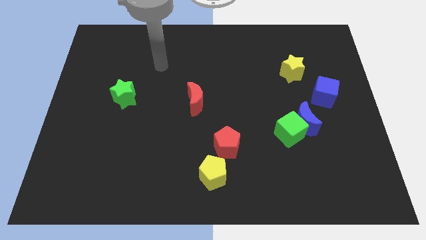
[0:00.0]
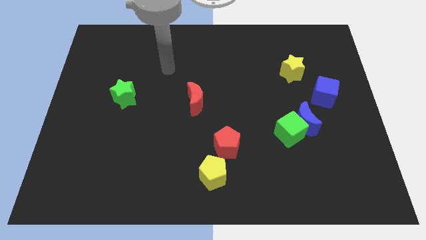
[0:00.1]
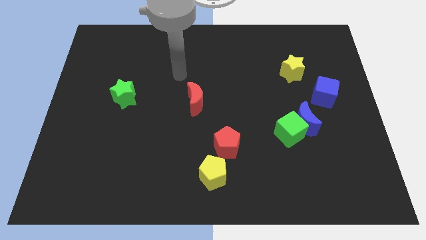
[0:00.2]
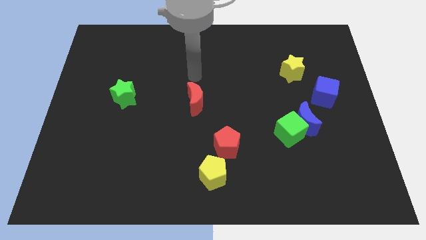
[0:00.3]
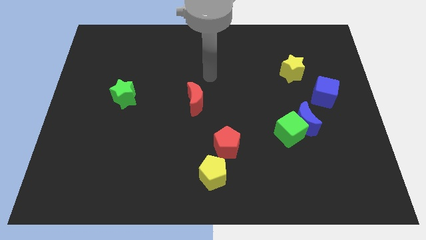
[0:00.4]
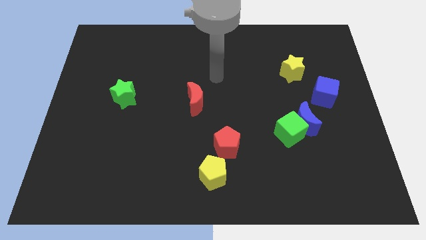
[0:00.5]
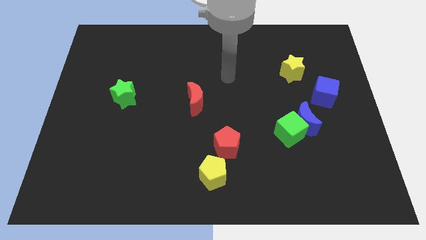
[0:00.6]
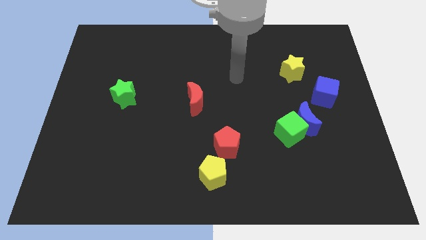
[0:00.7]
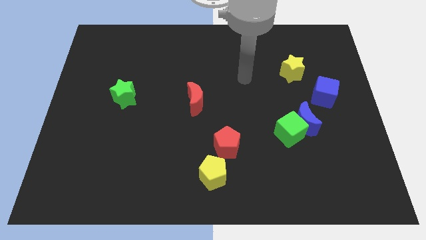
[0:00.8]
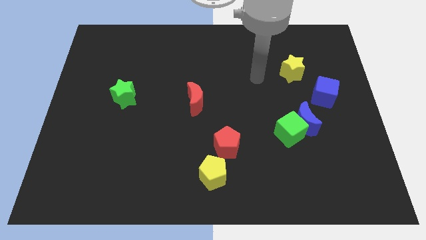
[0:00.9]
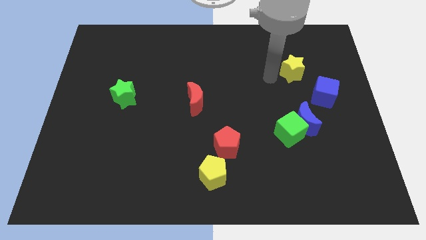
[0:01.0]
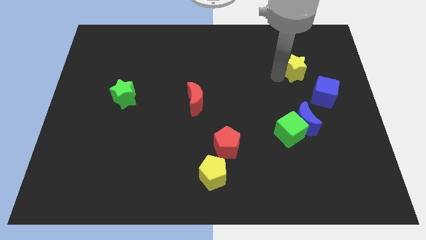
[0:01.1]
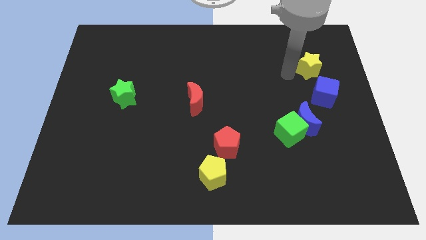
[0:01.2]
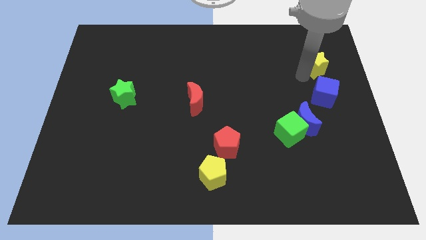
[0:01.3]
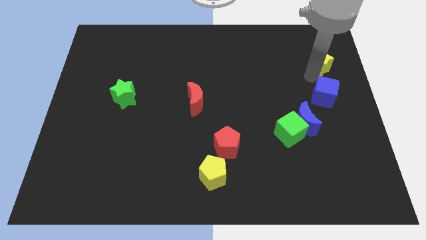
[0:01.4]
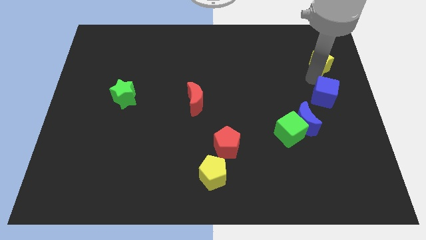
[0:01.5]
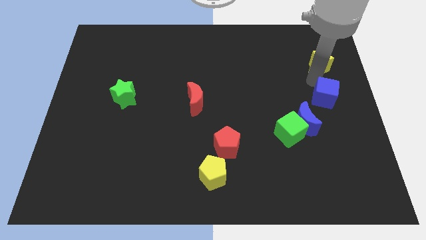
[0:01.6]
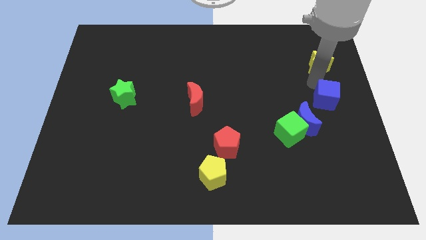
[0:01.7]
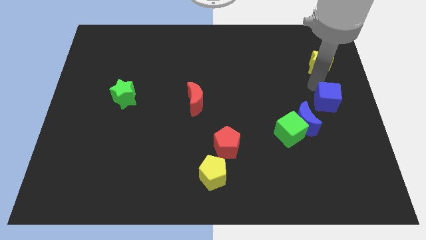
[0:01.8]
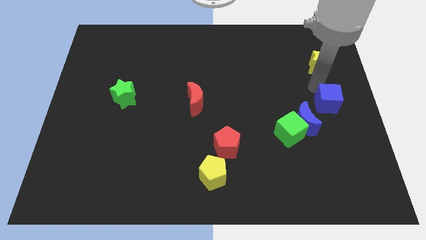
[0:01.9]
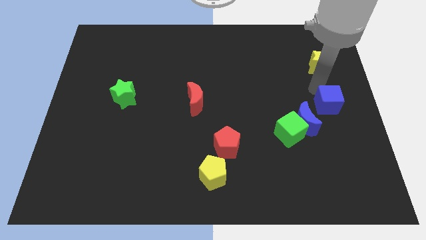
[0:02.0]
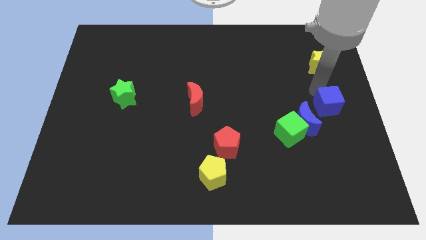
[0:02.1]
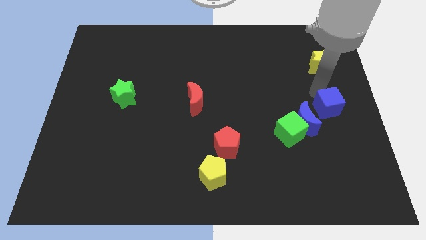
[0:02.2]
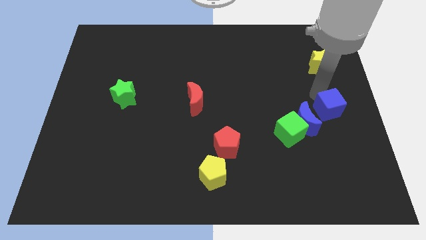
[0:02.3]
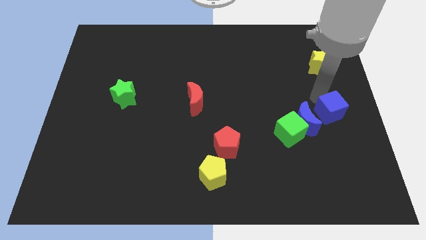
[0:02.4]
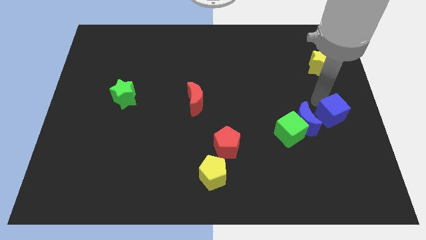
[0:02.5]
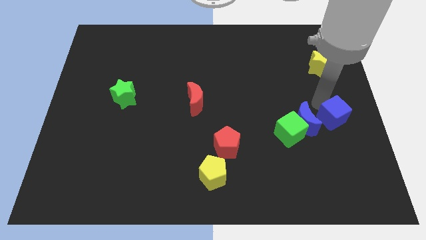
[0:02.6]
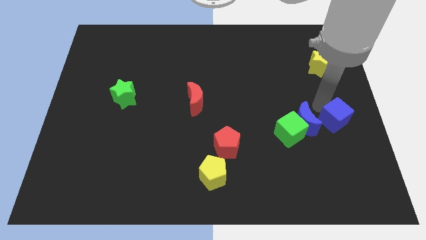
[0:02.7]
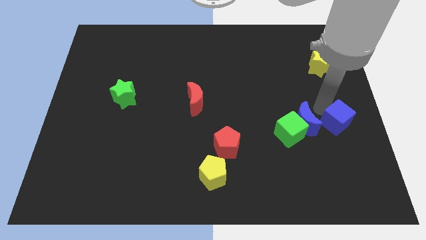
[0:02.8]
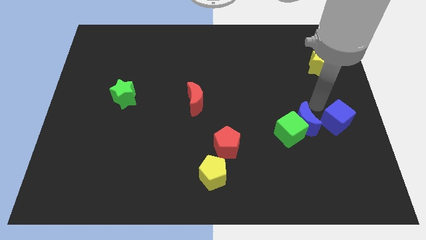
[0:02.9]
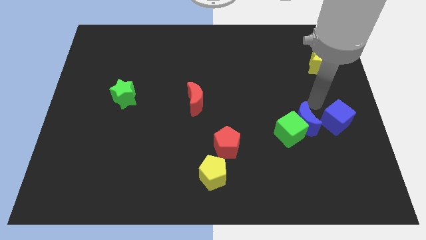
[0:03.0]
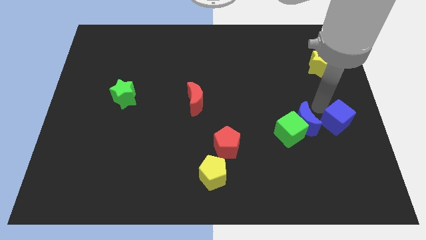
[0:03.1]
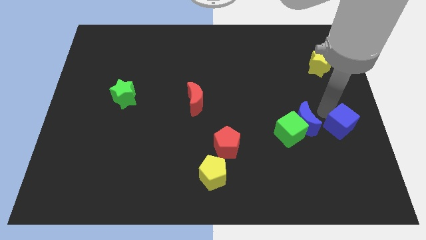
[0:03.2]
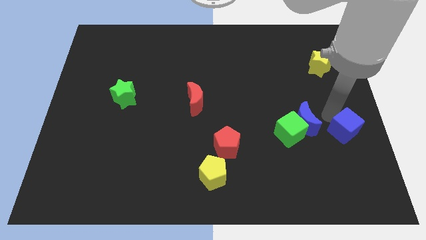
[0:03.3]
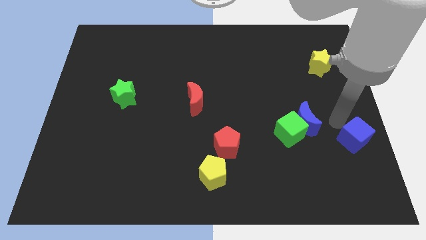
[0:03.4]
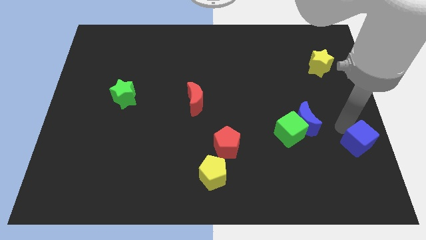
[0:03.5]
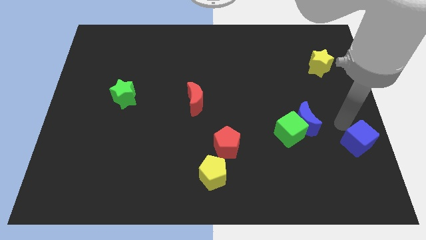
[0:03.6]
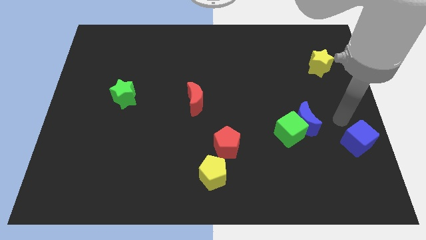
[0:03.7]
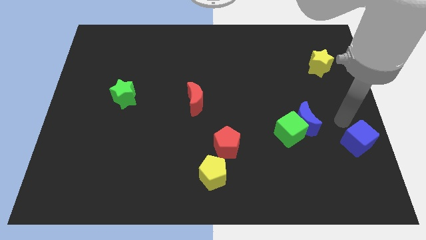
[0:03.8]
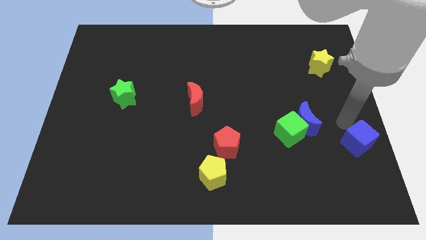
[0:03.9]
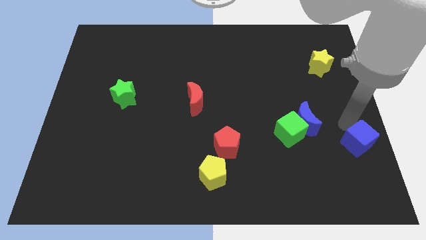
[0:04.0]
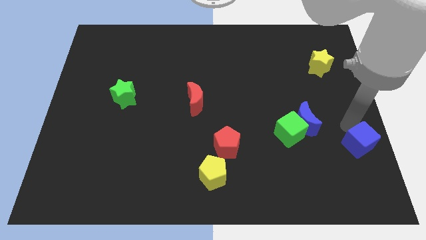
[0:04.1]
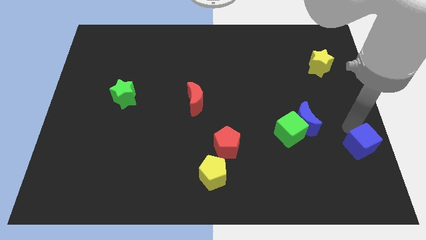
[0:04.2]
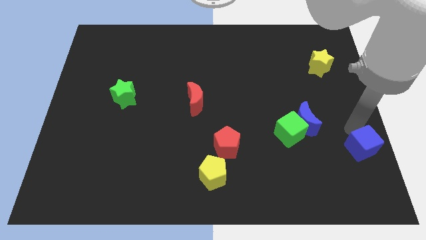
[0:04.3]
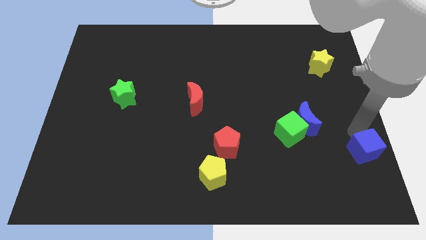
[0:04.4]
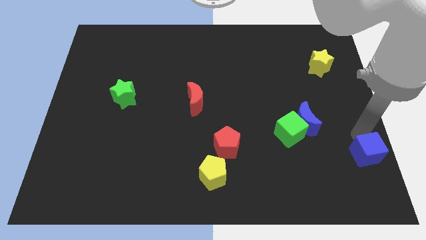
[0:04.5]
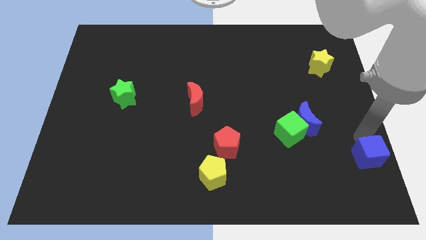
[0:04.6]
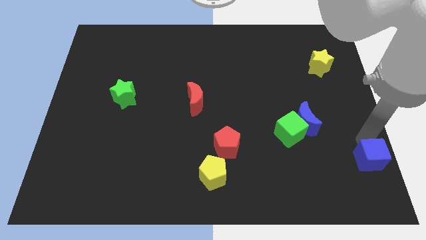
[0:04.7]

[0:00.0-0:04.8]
put the blue cube to the bottom right of the board

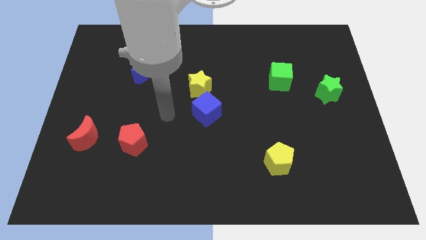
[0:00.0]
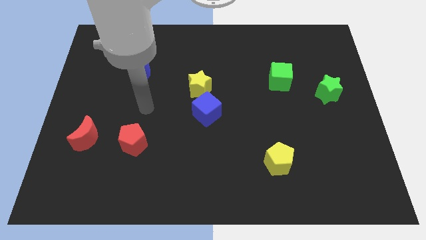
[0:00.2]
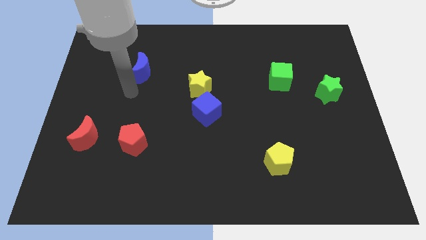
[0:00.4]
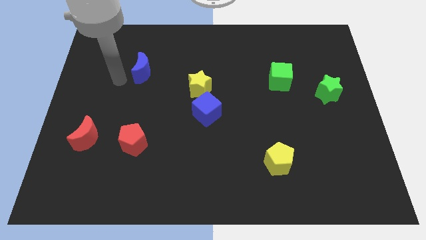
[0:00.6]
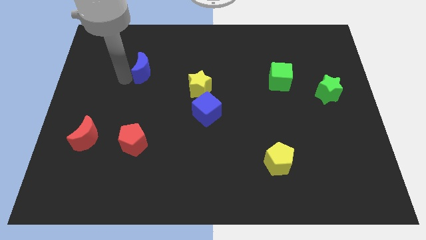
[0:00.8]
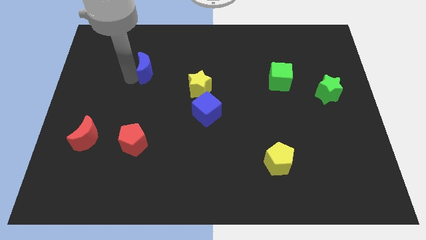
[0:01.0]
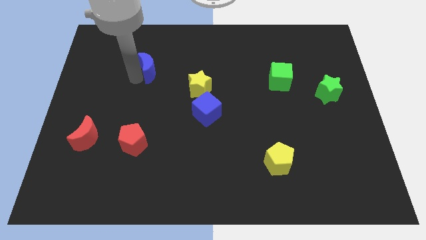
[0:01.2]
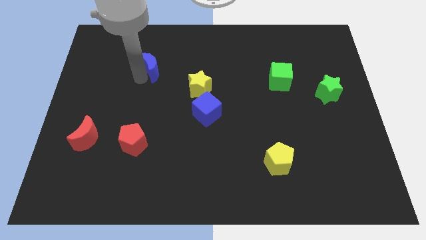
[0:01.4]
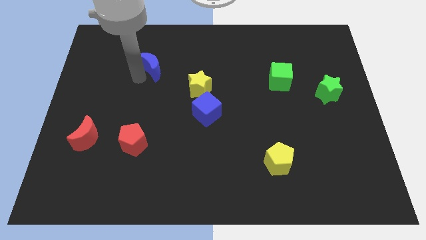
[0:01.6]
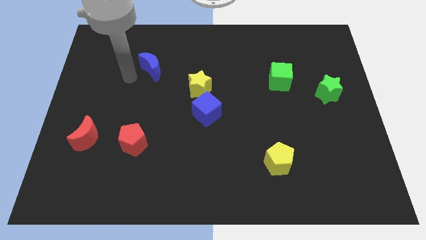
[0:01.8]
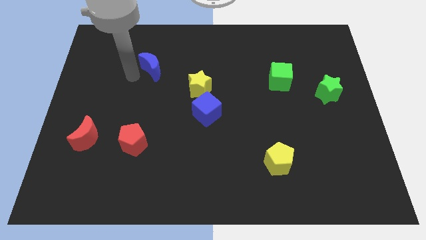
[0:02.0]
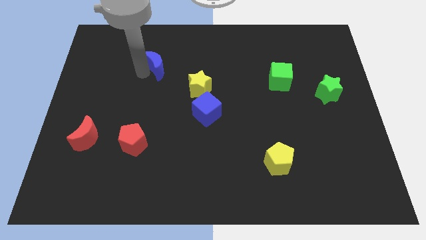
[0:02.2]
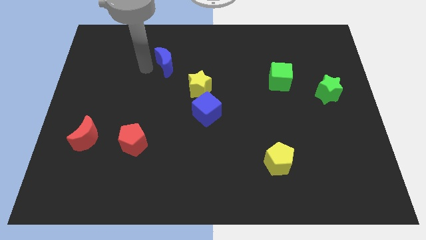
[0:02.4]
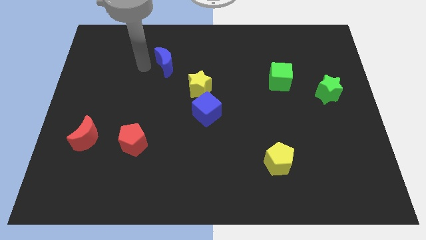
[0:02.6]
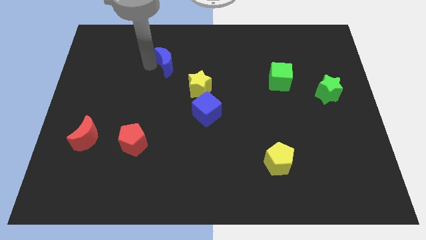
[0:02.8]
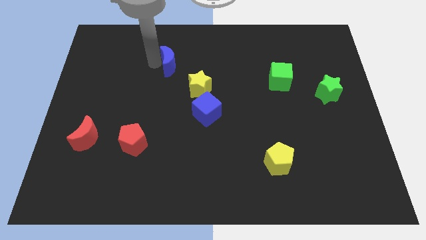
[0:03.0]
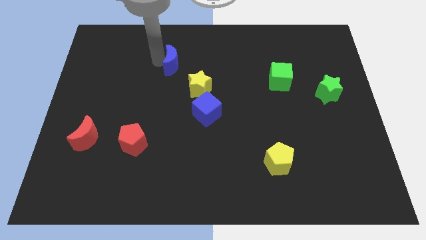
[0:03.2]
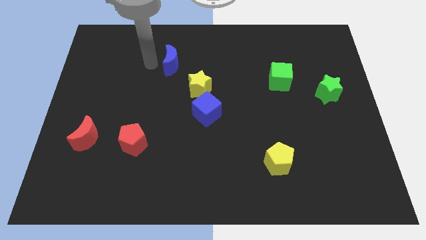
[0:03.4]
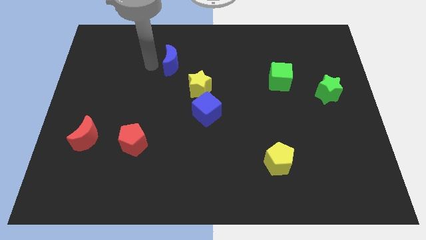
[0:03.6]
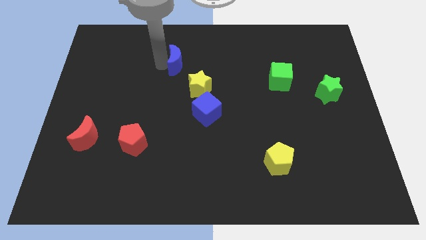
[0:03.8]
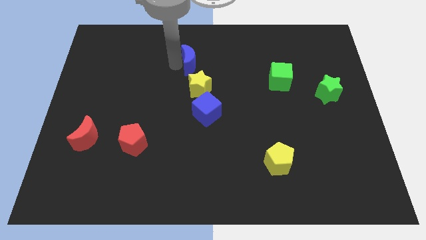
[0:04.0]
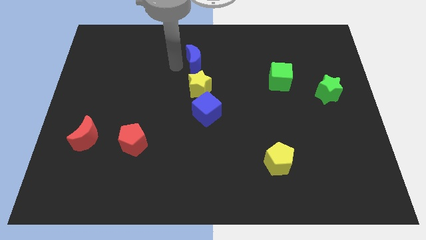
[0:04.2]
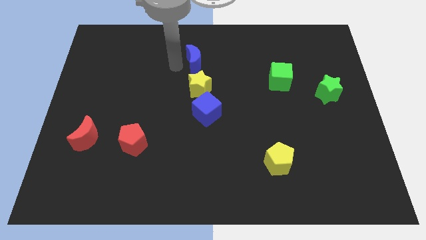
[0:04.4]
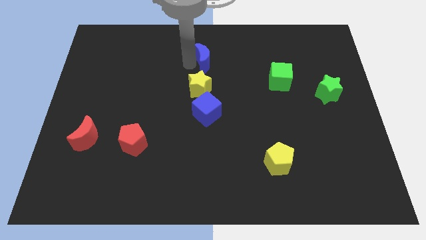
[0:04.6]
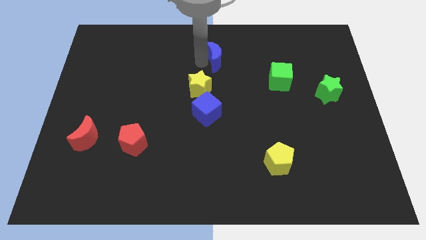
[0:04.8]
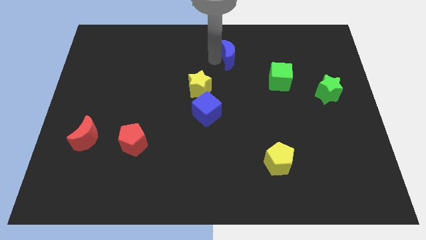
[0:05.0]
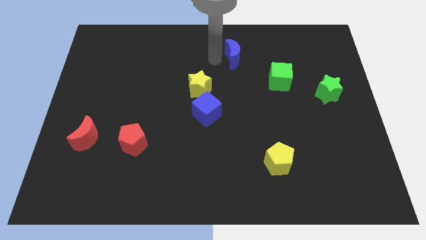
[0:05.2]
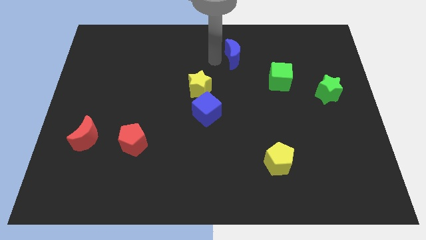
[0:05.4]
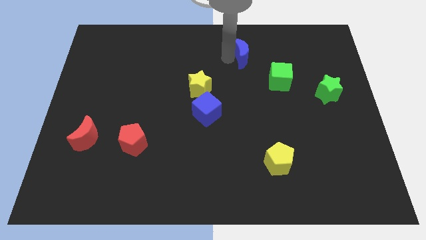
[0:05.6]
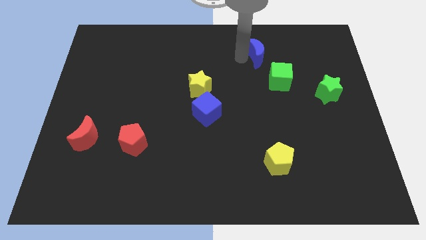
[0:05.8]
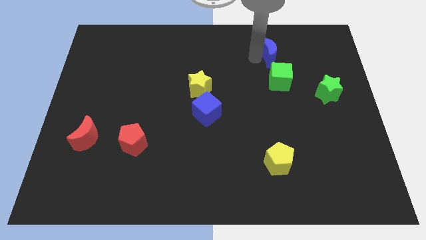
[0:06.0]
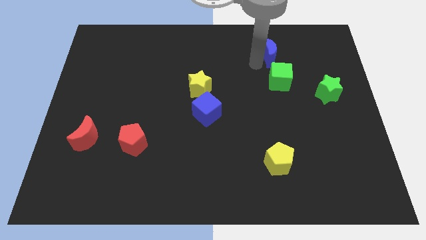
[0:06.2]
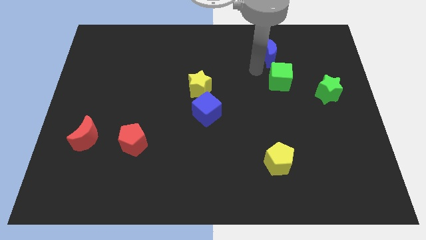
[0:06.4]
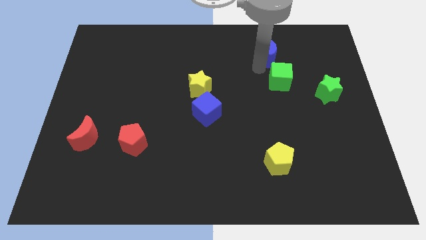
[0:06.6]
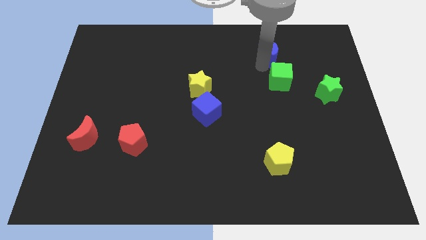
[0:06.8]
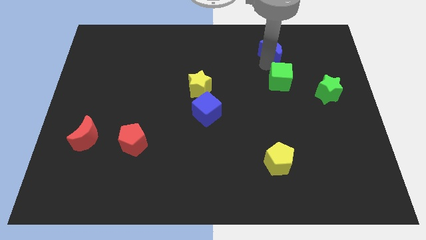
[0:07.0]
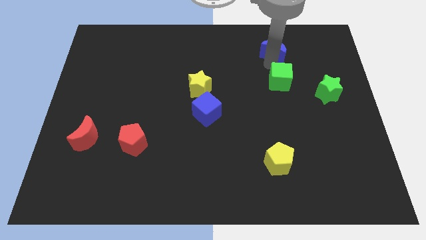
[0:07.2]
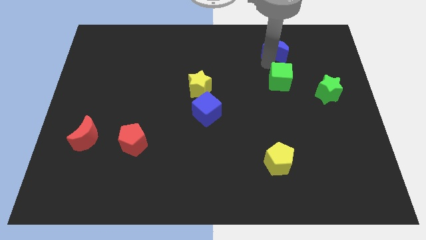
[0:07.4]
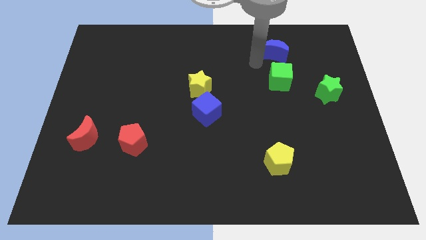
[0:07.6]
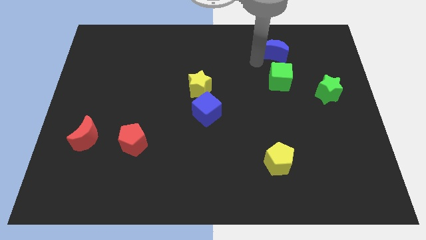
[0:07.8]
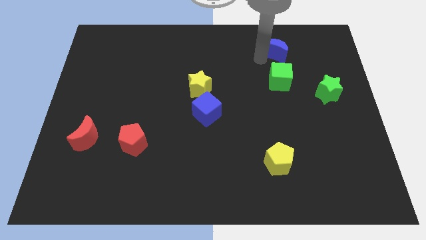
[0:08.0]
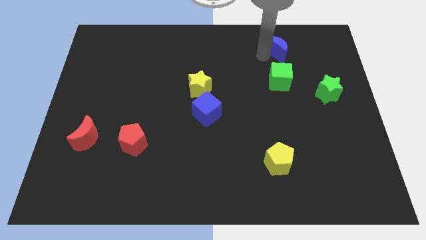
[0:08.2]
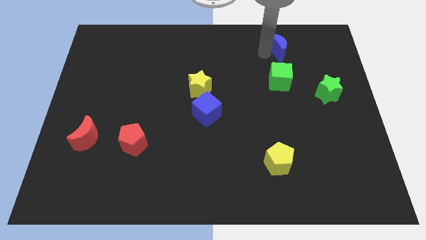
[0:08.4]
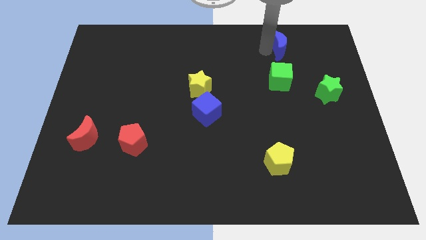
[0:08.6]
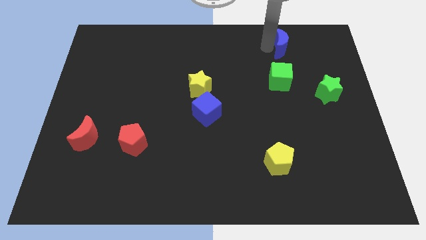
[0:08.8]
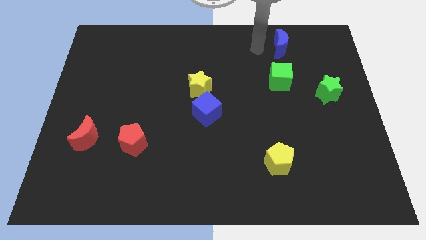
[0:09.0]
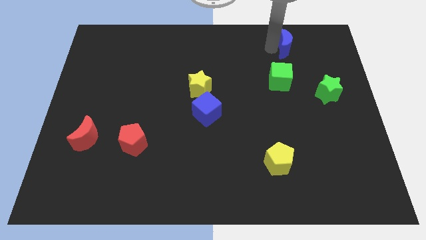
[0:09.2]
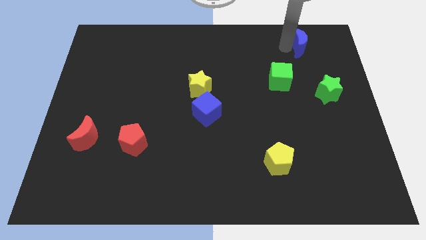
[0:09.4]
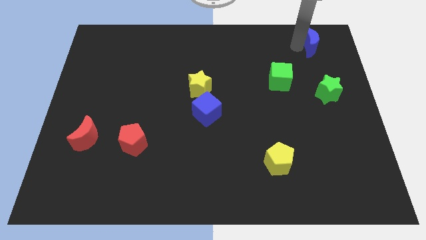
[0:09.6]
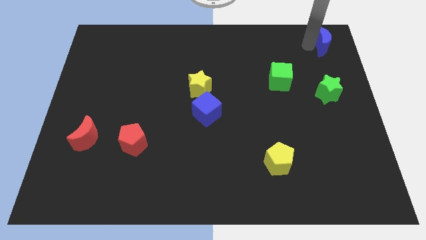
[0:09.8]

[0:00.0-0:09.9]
put the blue moon to the top right corner
